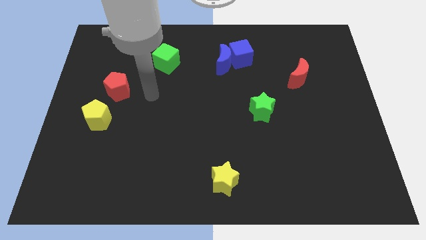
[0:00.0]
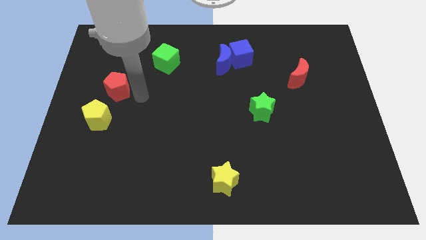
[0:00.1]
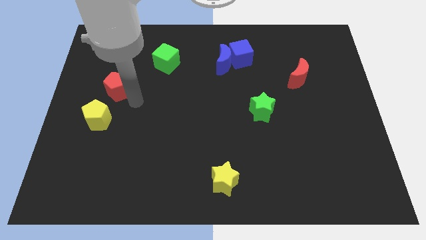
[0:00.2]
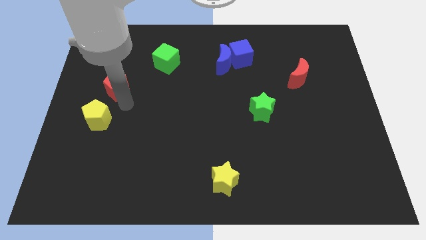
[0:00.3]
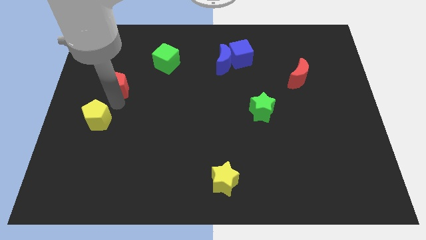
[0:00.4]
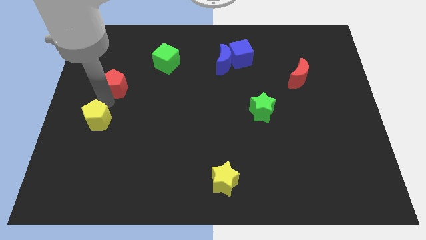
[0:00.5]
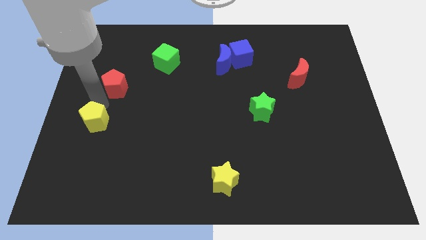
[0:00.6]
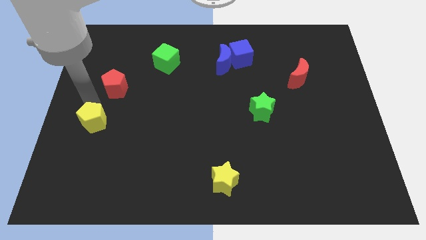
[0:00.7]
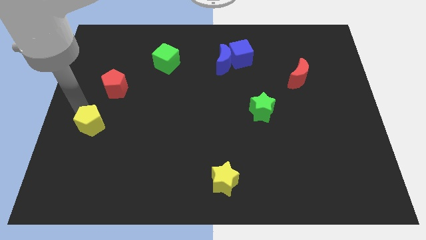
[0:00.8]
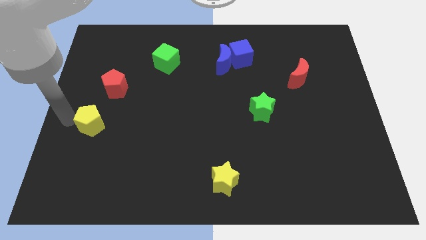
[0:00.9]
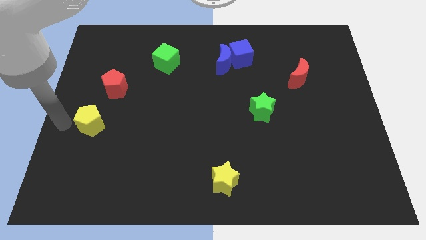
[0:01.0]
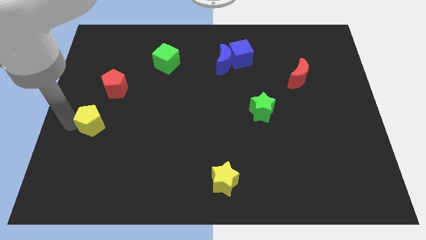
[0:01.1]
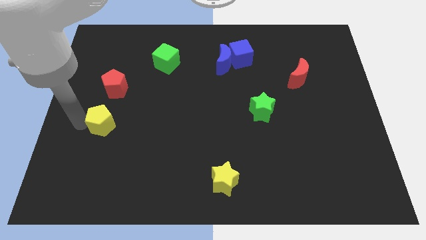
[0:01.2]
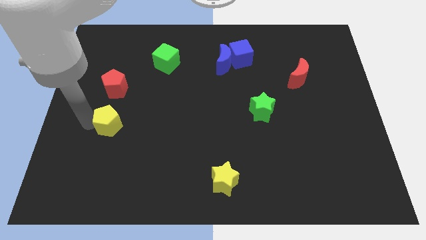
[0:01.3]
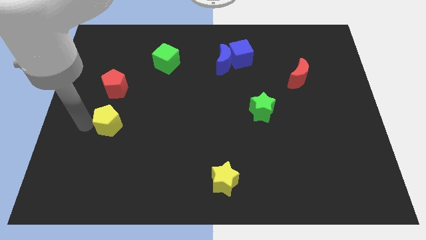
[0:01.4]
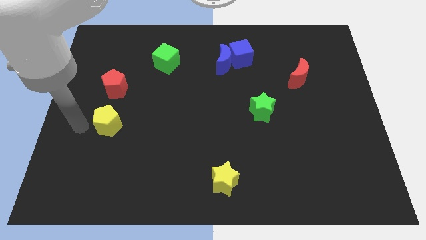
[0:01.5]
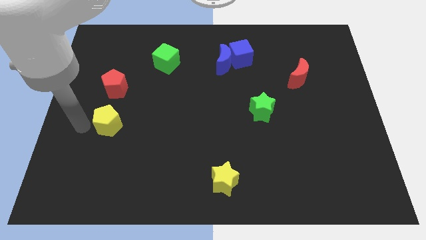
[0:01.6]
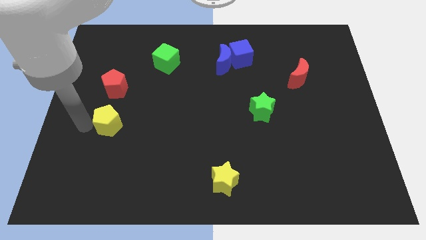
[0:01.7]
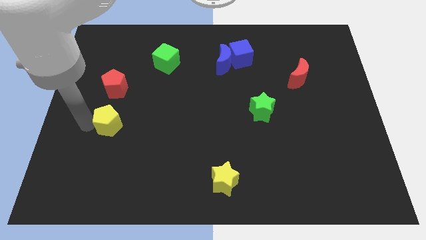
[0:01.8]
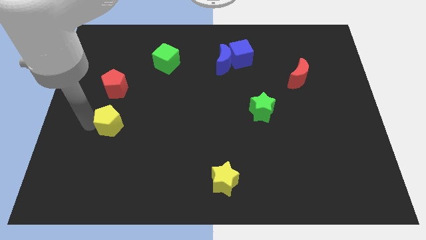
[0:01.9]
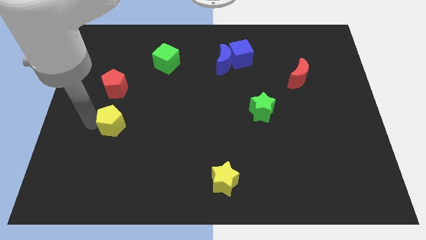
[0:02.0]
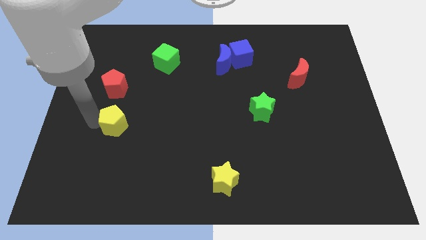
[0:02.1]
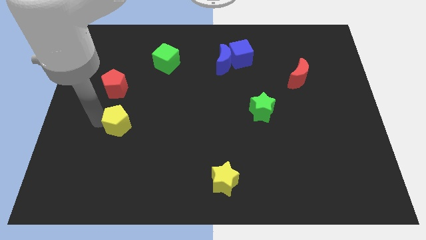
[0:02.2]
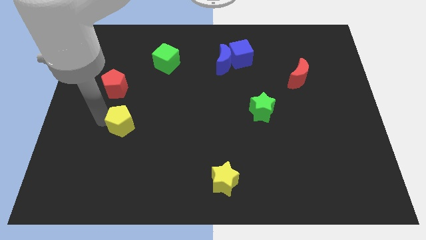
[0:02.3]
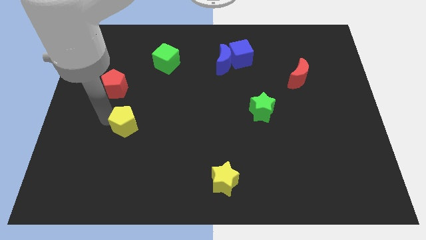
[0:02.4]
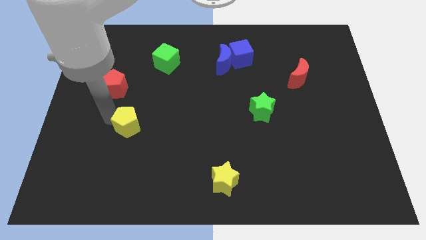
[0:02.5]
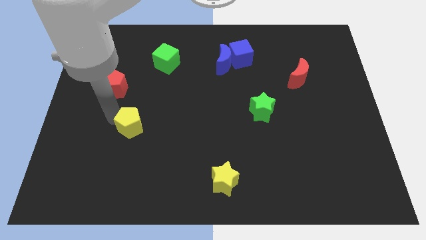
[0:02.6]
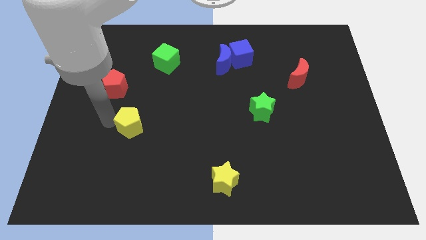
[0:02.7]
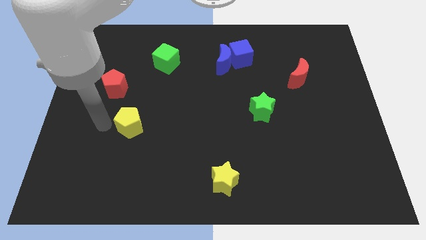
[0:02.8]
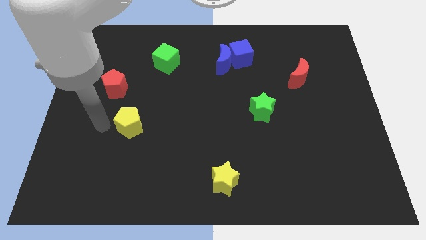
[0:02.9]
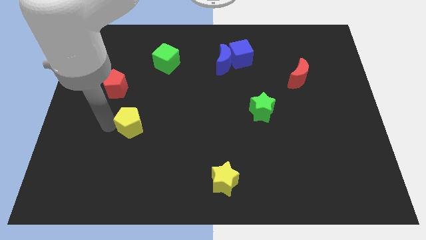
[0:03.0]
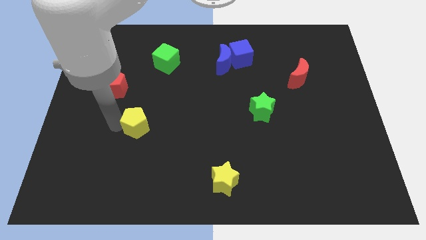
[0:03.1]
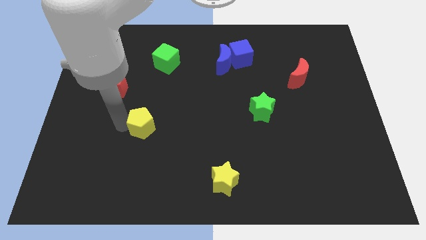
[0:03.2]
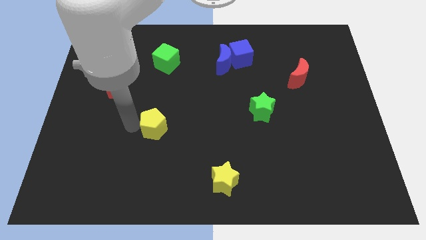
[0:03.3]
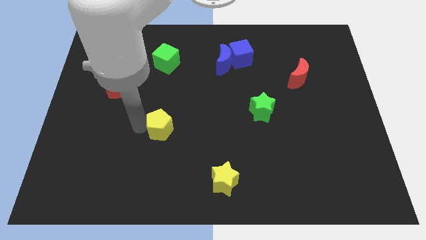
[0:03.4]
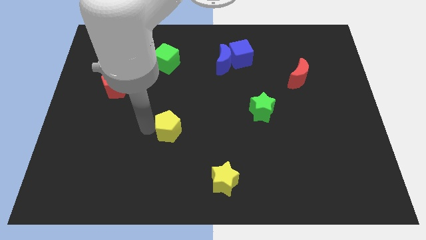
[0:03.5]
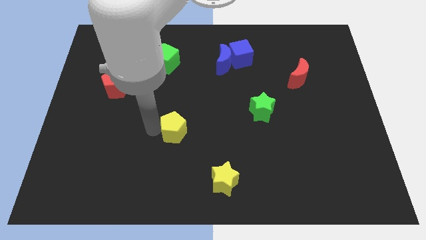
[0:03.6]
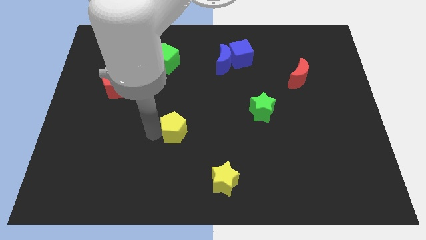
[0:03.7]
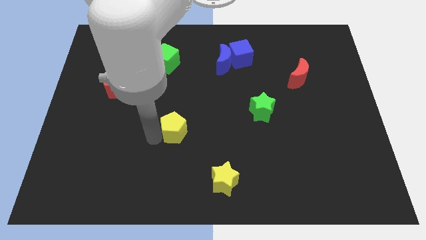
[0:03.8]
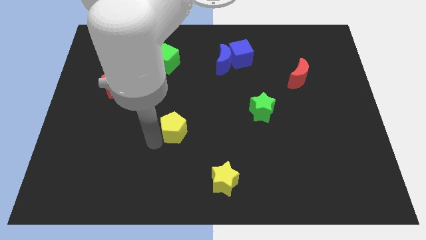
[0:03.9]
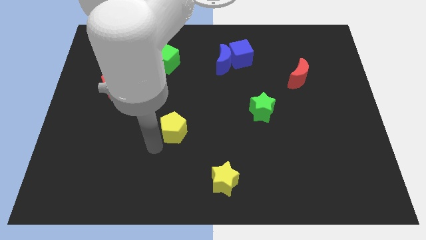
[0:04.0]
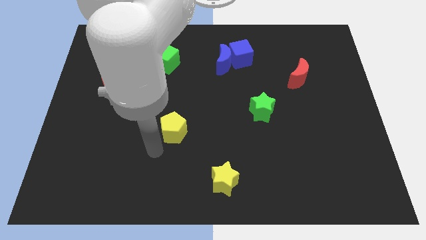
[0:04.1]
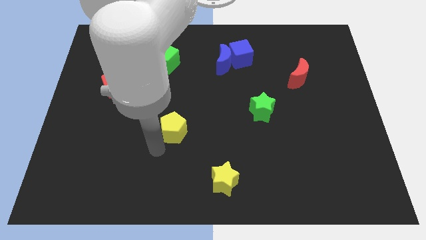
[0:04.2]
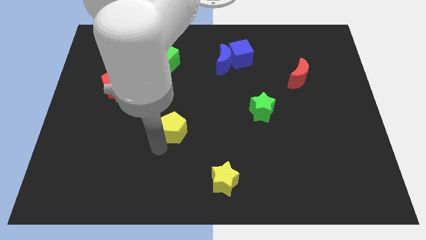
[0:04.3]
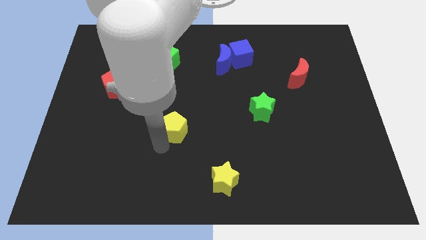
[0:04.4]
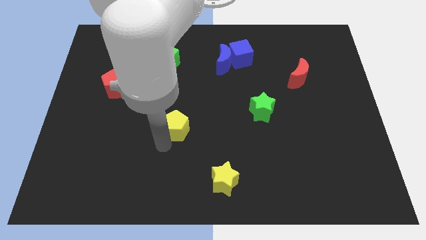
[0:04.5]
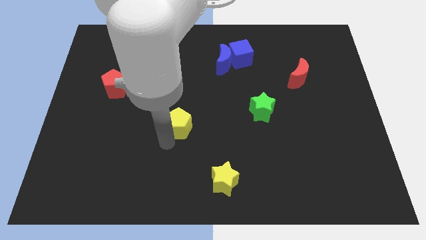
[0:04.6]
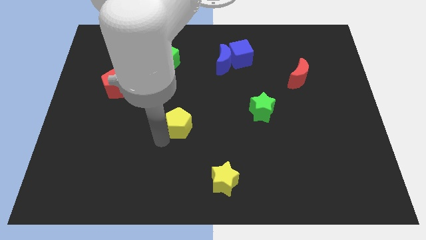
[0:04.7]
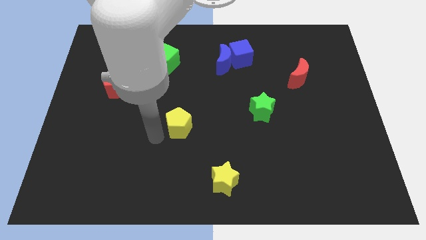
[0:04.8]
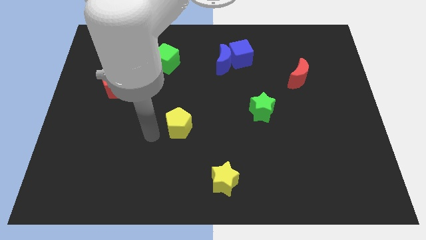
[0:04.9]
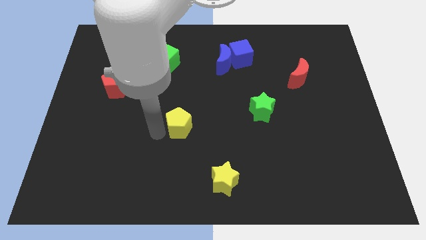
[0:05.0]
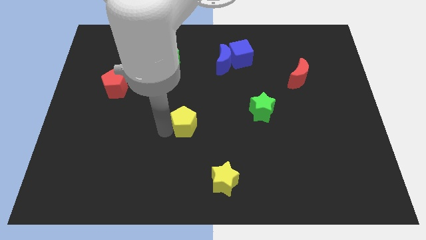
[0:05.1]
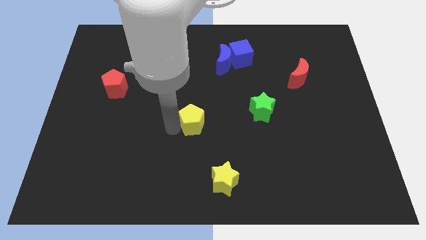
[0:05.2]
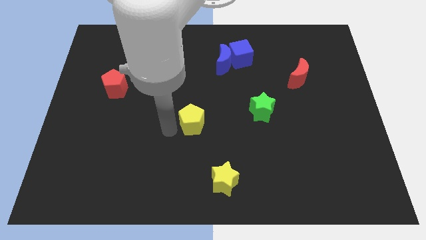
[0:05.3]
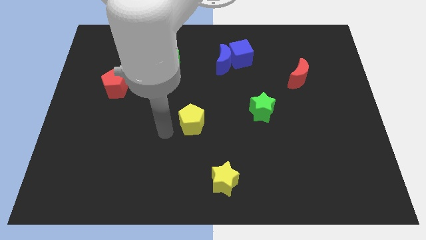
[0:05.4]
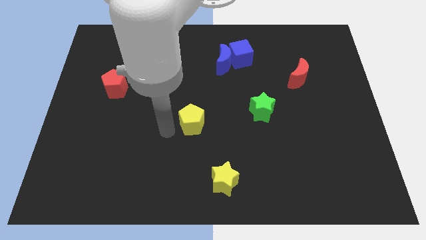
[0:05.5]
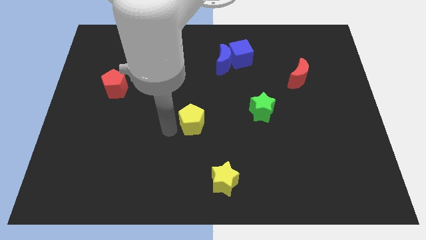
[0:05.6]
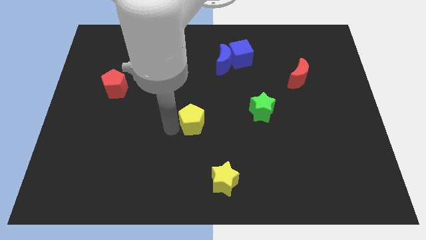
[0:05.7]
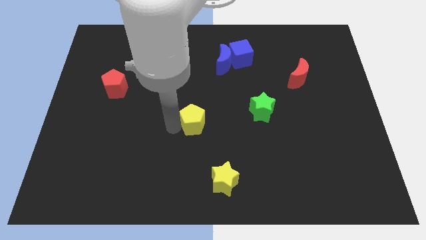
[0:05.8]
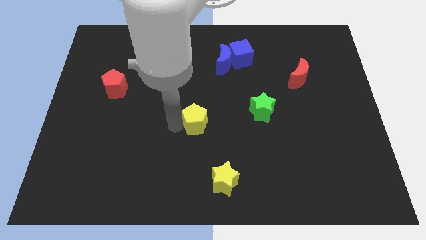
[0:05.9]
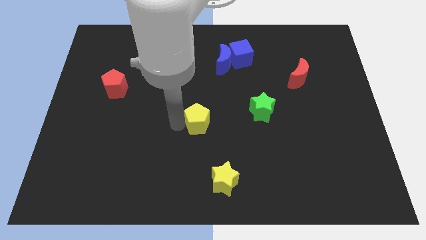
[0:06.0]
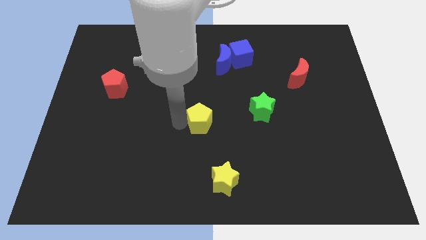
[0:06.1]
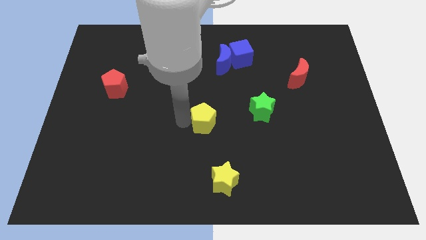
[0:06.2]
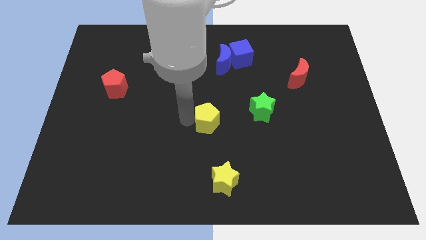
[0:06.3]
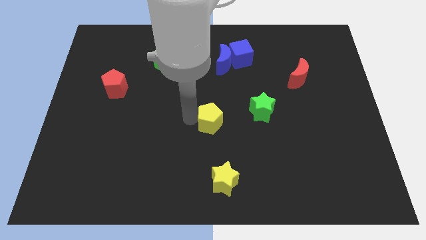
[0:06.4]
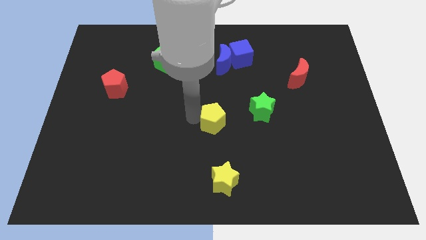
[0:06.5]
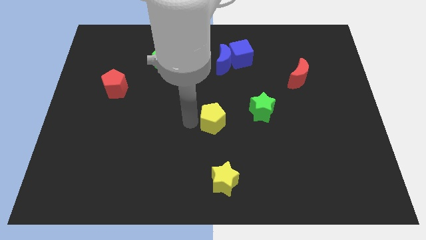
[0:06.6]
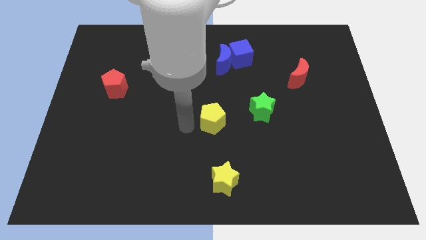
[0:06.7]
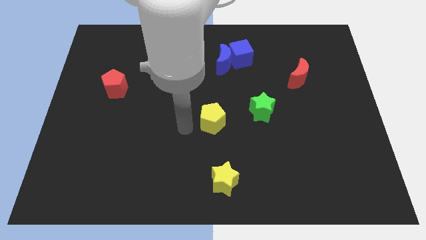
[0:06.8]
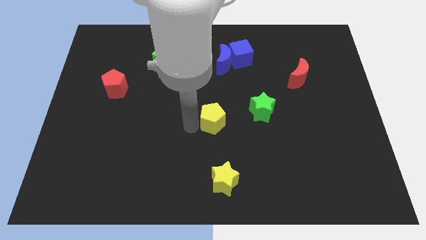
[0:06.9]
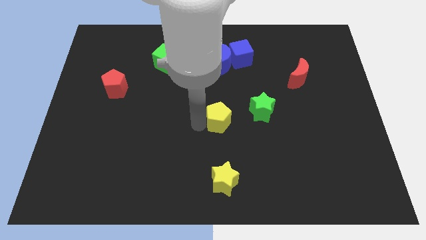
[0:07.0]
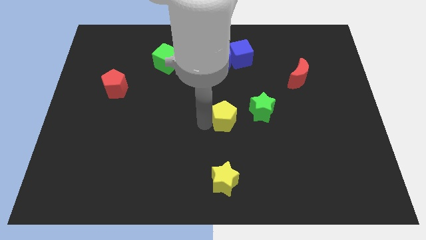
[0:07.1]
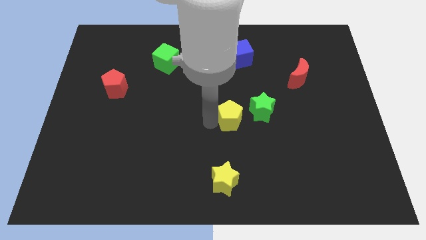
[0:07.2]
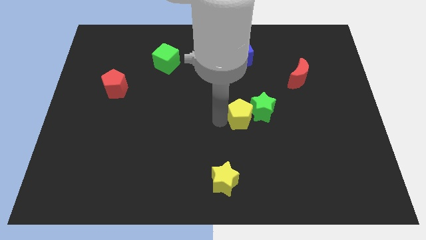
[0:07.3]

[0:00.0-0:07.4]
slide the yellow pentagon towards the green star

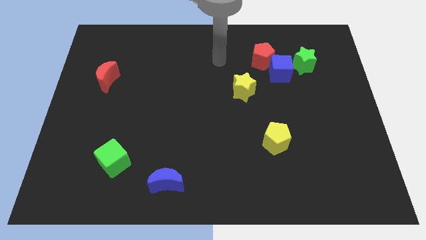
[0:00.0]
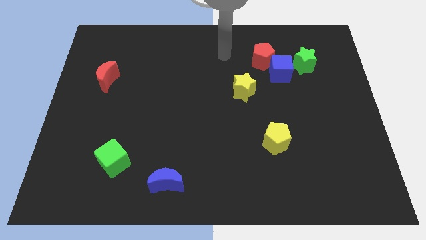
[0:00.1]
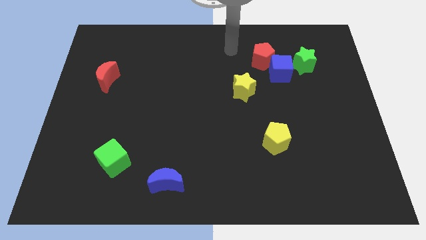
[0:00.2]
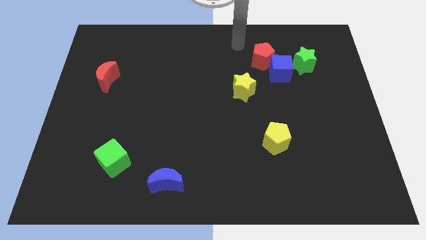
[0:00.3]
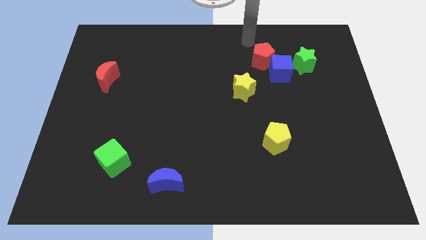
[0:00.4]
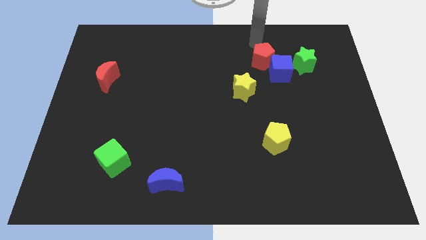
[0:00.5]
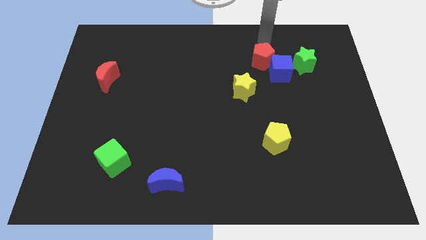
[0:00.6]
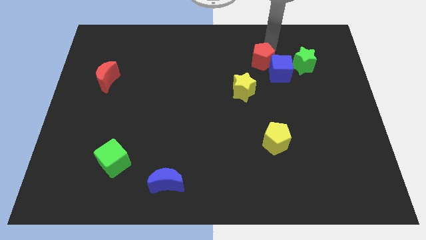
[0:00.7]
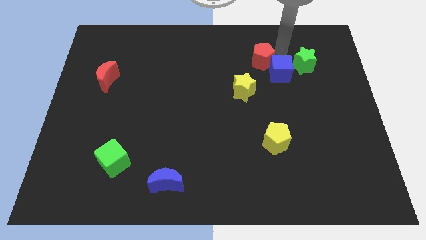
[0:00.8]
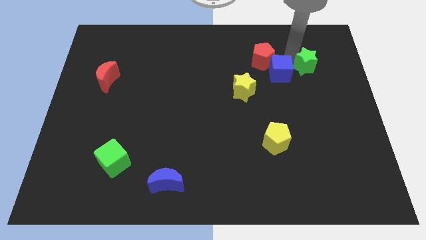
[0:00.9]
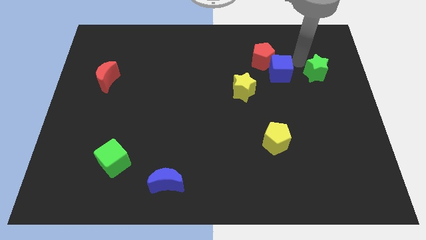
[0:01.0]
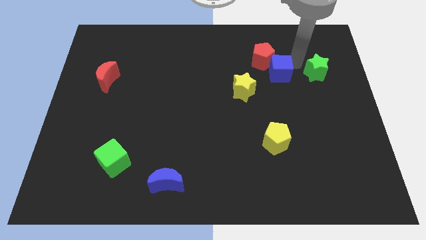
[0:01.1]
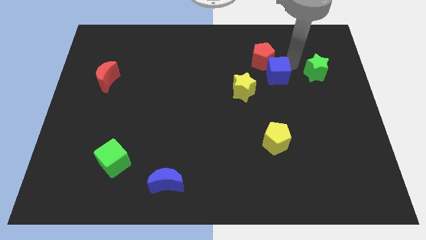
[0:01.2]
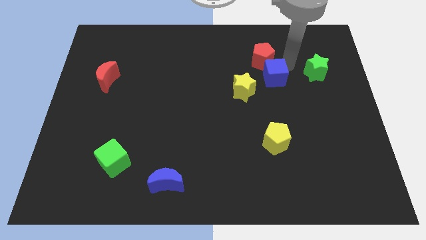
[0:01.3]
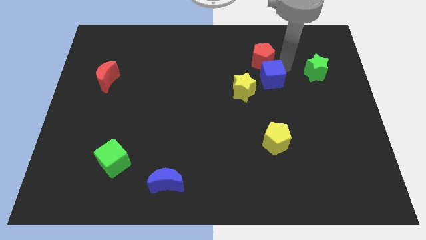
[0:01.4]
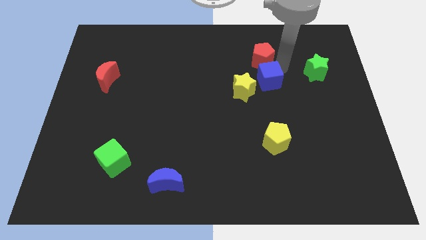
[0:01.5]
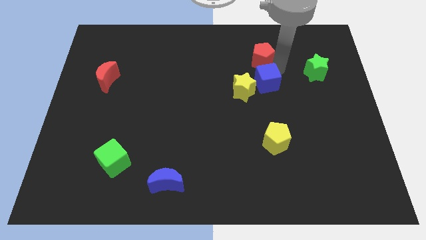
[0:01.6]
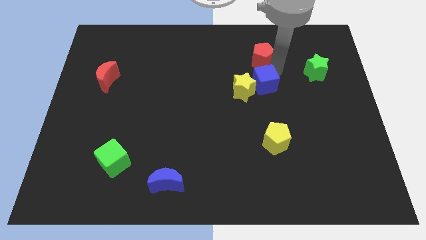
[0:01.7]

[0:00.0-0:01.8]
move the blue cube close to the yellow star
